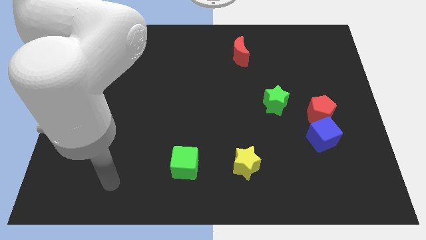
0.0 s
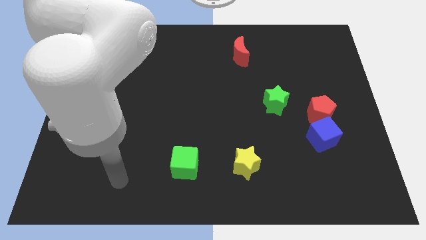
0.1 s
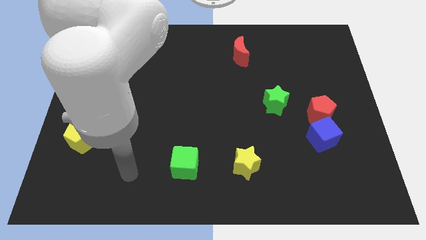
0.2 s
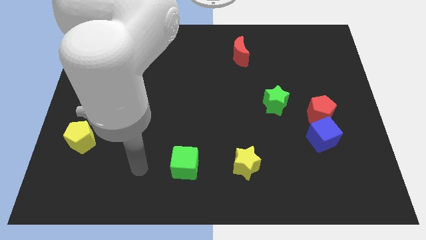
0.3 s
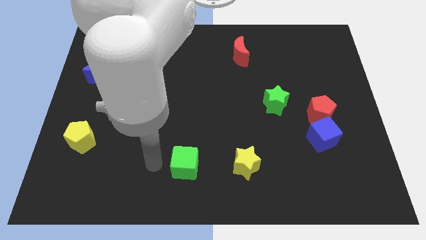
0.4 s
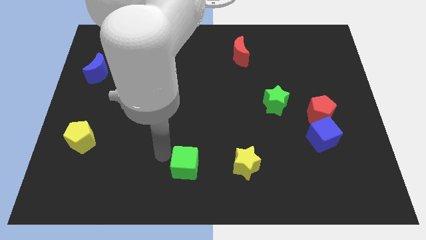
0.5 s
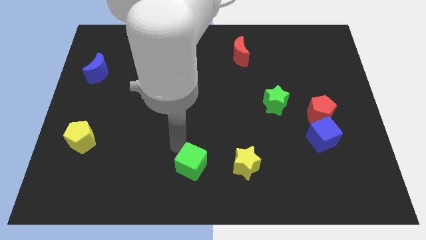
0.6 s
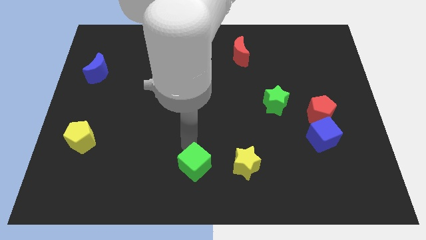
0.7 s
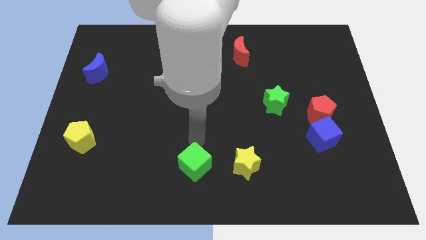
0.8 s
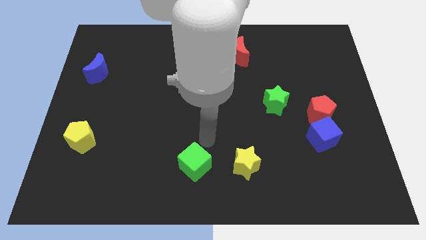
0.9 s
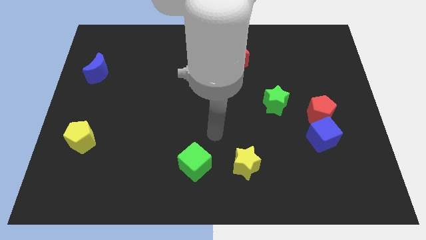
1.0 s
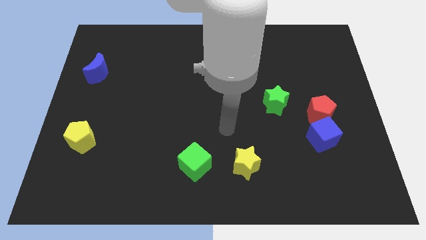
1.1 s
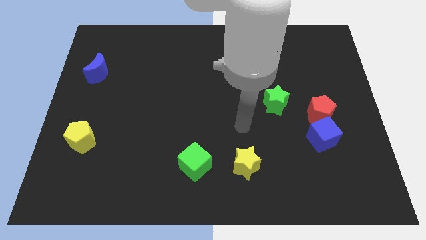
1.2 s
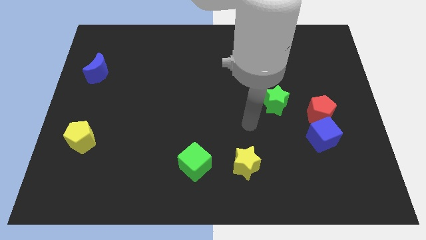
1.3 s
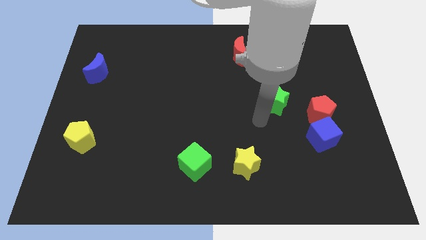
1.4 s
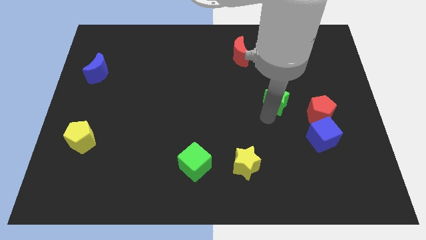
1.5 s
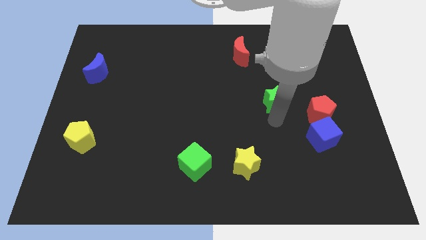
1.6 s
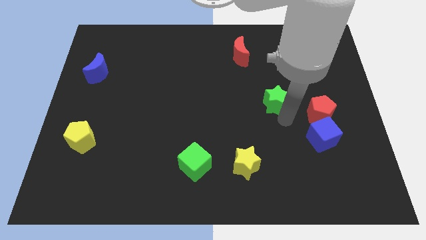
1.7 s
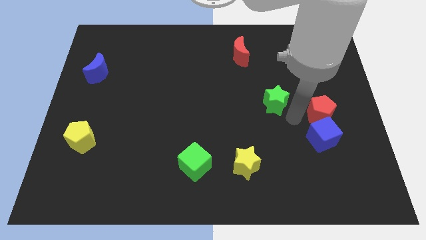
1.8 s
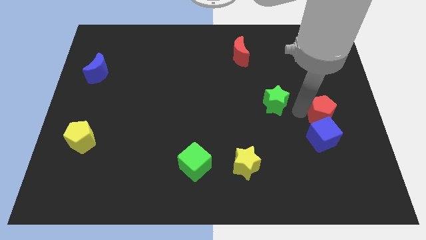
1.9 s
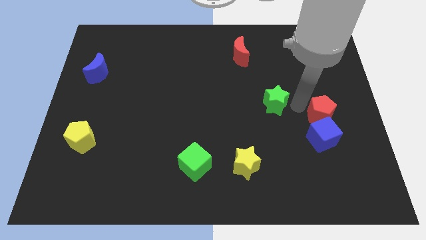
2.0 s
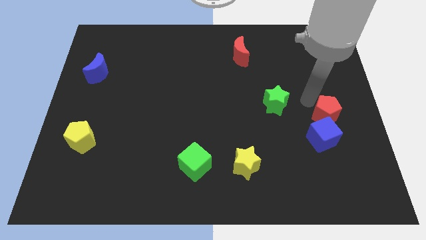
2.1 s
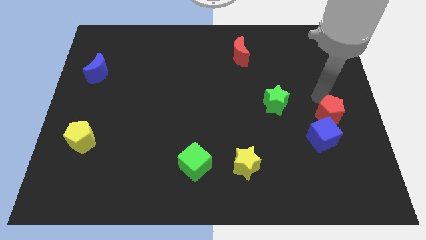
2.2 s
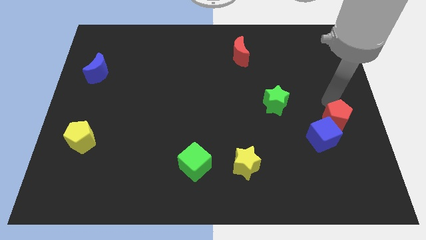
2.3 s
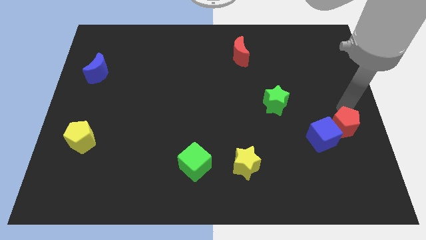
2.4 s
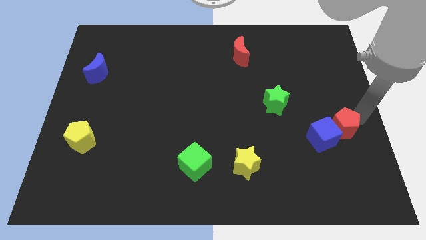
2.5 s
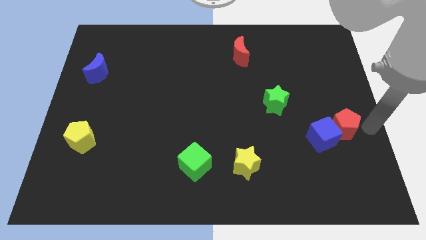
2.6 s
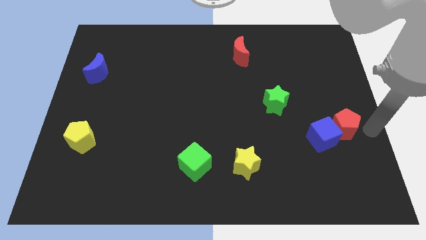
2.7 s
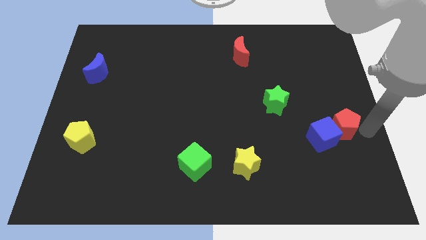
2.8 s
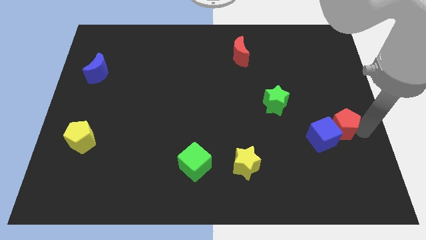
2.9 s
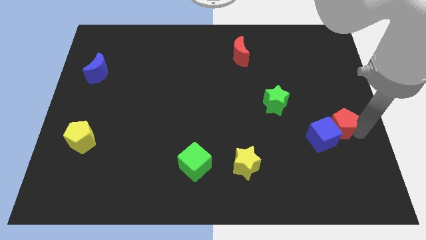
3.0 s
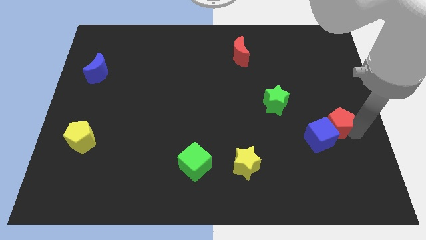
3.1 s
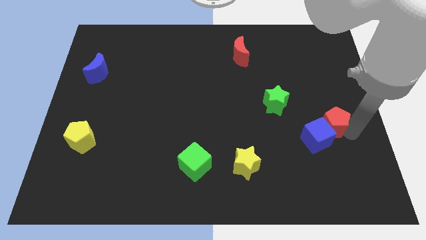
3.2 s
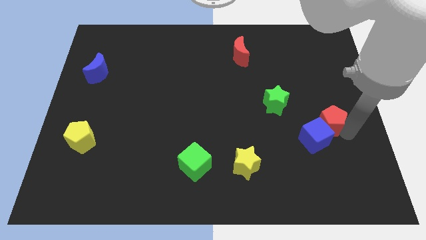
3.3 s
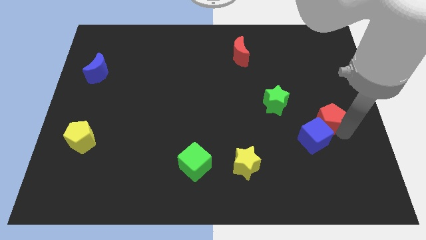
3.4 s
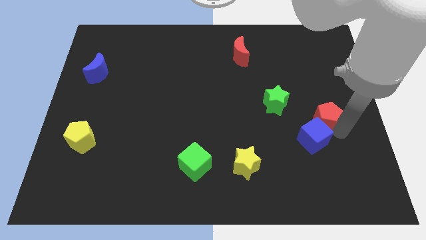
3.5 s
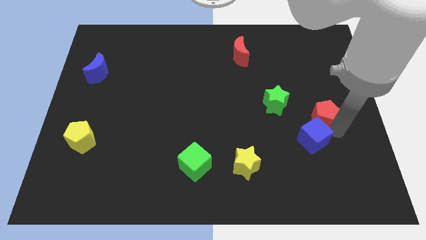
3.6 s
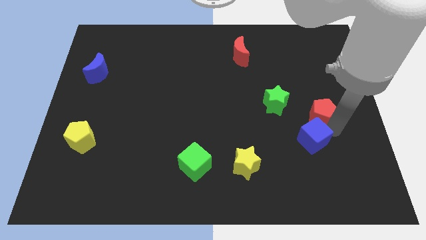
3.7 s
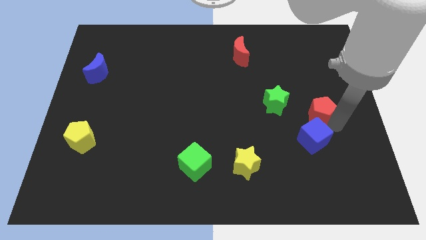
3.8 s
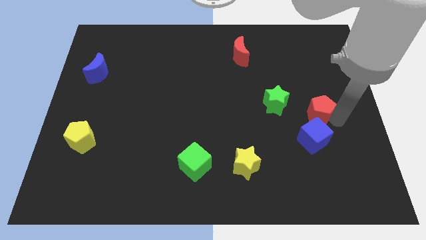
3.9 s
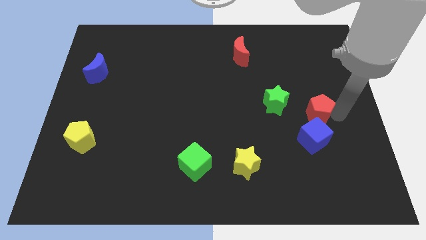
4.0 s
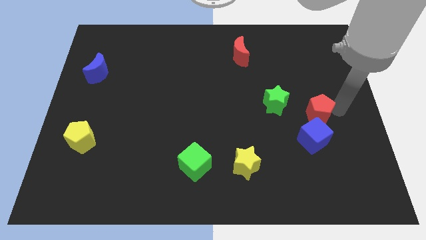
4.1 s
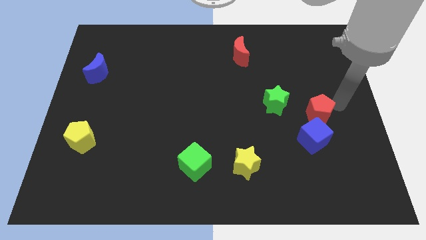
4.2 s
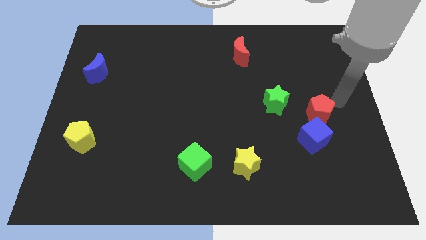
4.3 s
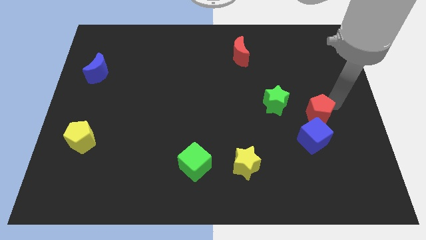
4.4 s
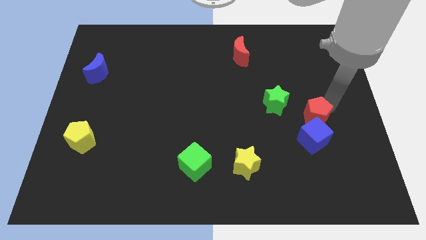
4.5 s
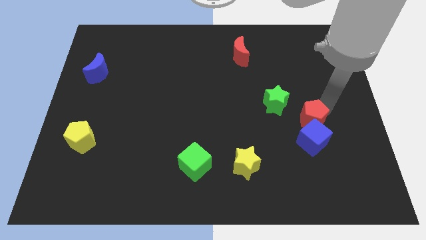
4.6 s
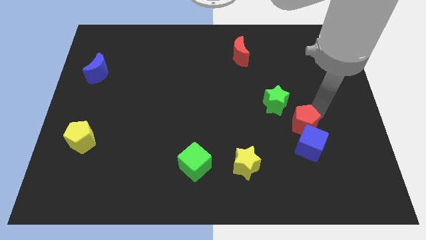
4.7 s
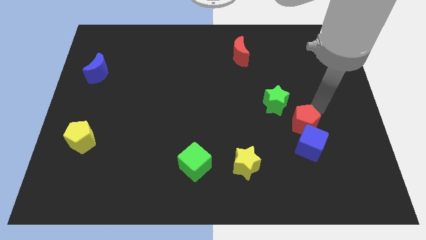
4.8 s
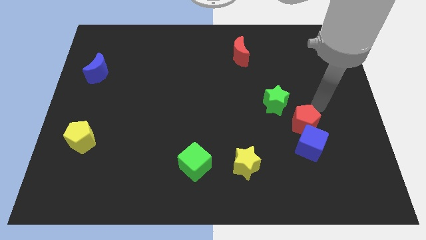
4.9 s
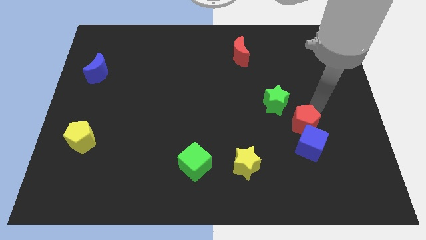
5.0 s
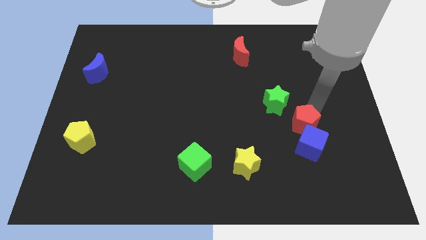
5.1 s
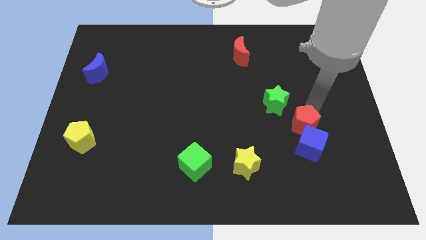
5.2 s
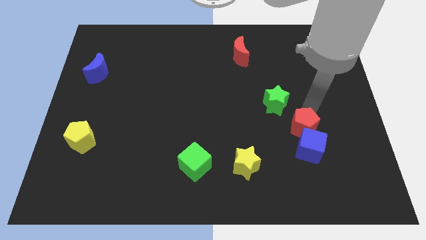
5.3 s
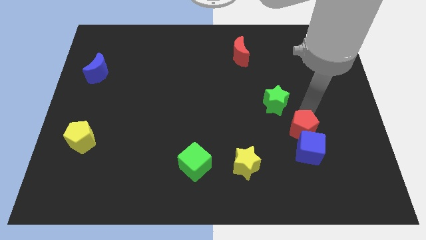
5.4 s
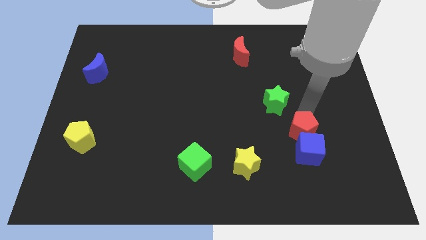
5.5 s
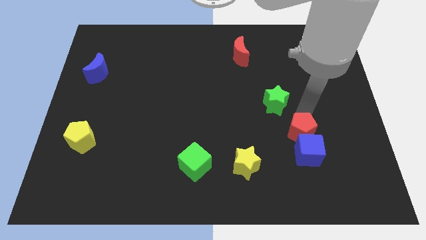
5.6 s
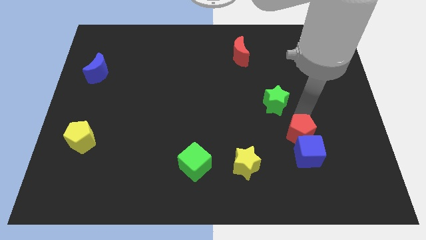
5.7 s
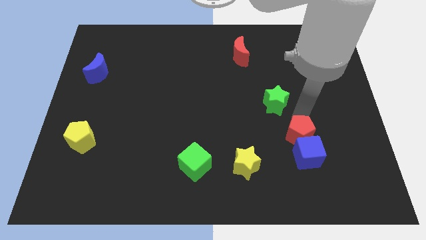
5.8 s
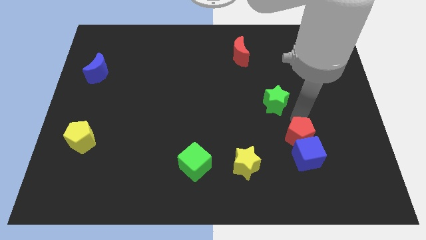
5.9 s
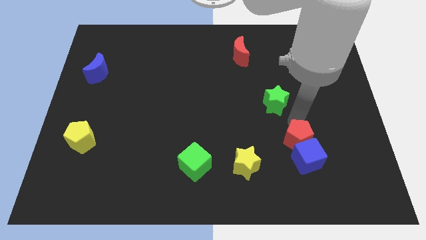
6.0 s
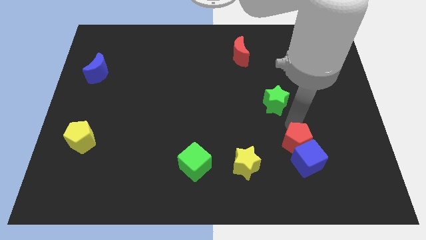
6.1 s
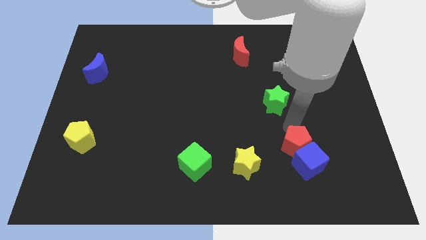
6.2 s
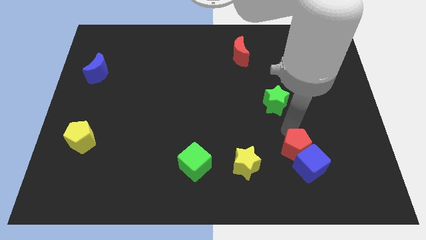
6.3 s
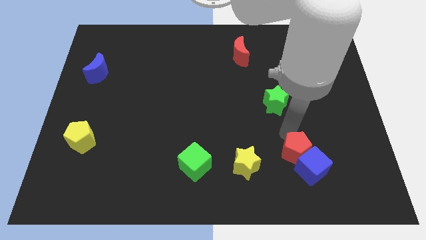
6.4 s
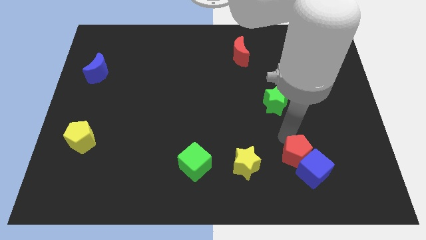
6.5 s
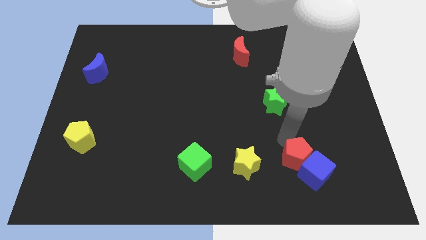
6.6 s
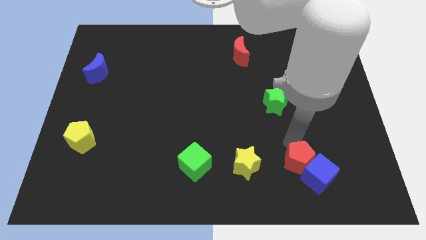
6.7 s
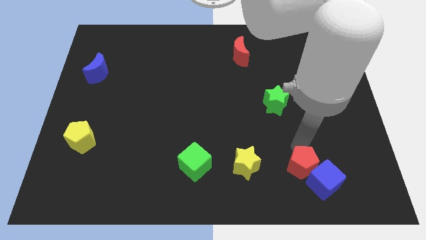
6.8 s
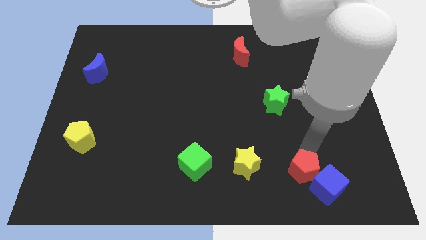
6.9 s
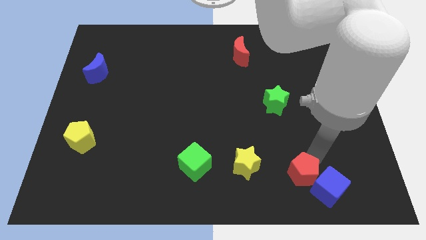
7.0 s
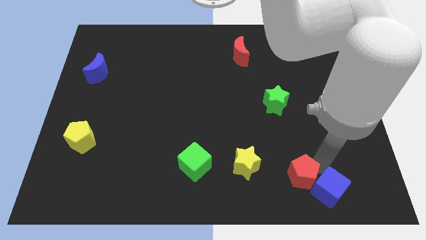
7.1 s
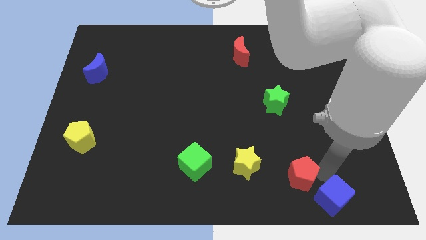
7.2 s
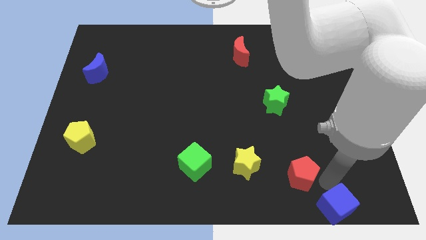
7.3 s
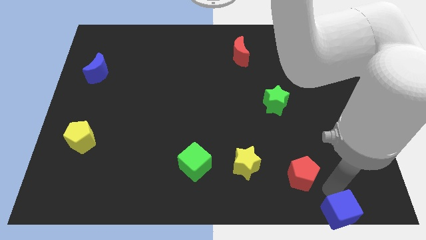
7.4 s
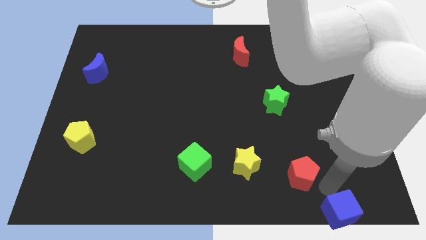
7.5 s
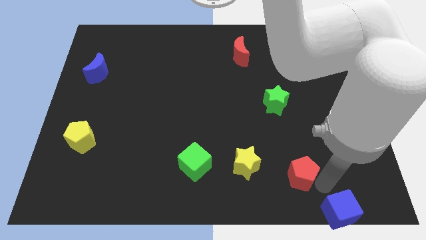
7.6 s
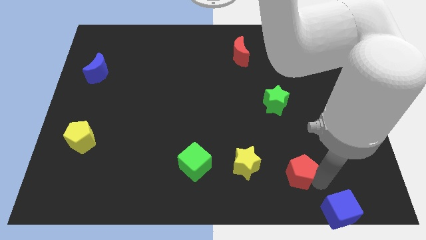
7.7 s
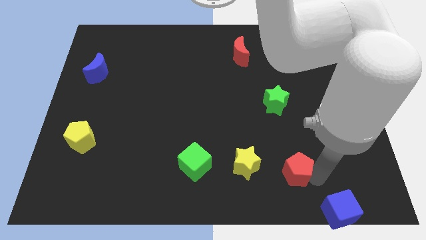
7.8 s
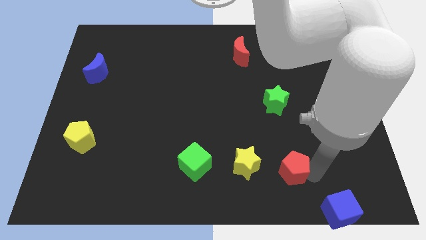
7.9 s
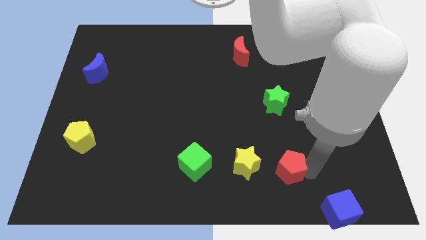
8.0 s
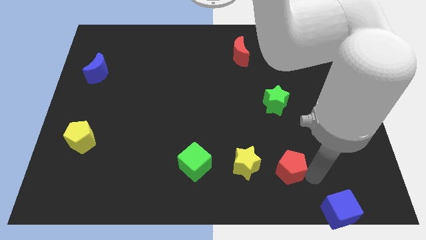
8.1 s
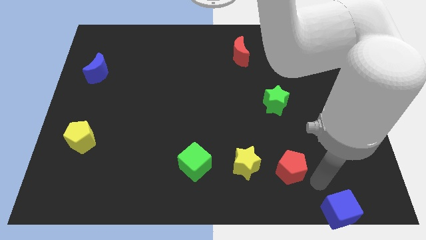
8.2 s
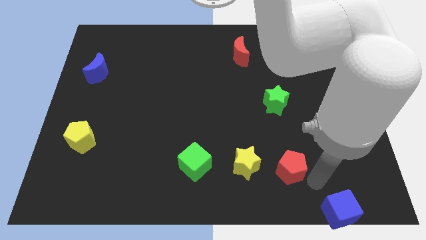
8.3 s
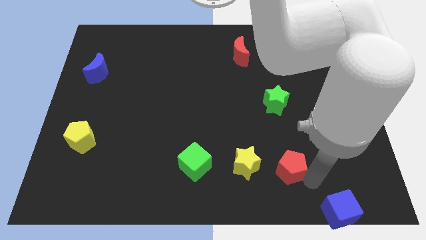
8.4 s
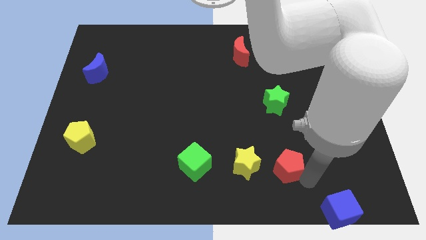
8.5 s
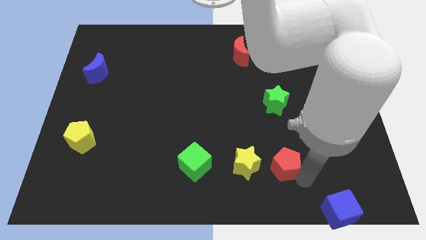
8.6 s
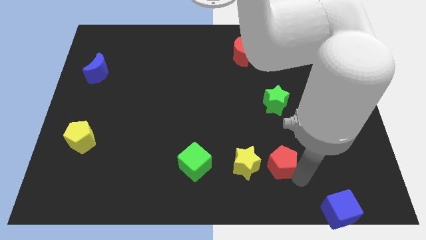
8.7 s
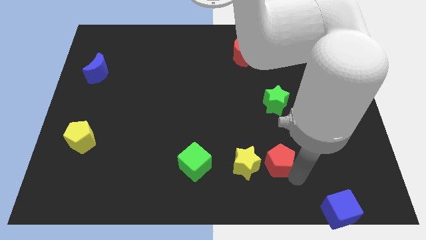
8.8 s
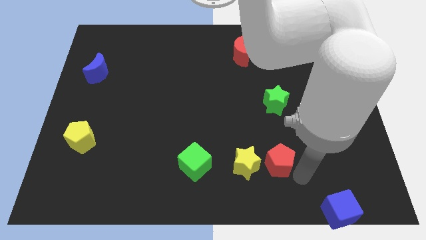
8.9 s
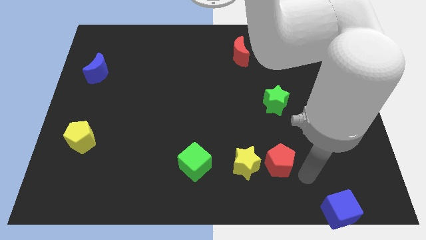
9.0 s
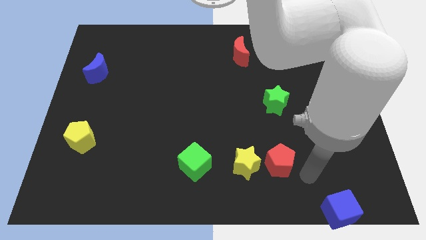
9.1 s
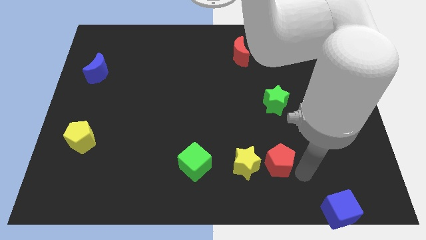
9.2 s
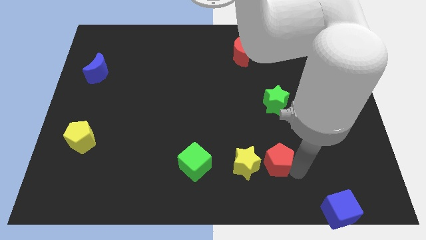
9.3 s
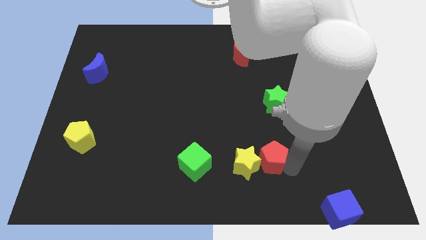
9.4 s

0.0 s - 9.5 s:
move the red pentagon close to the yellow star
